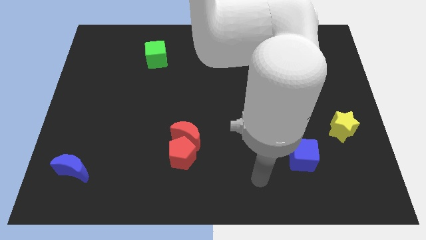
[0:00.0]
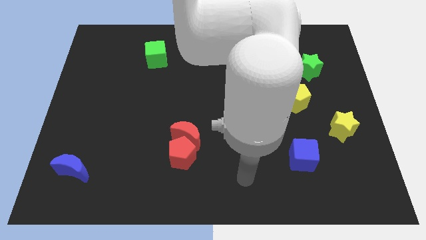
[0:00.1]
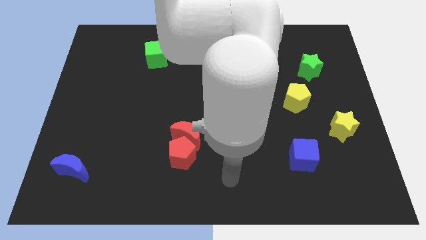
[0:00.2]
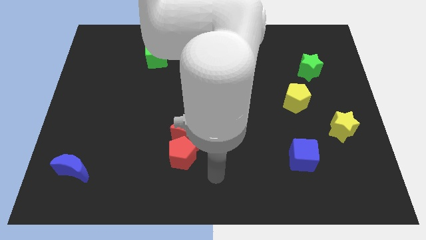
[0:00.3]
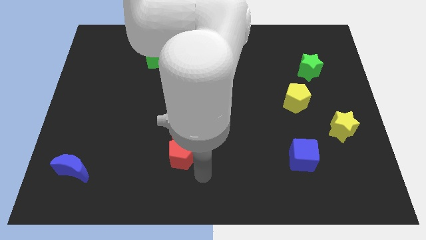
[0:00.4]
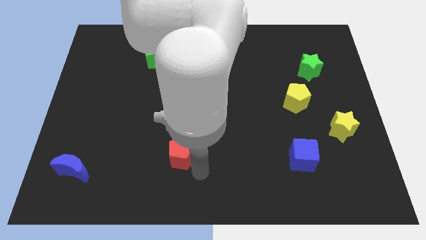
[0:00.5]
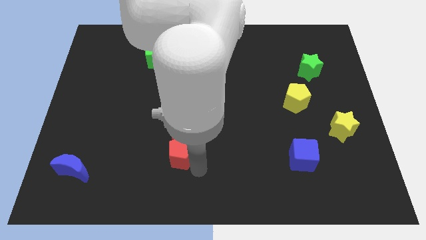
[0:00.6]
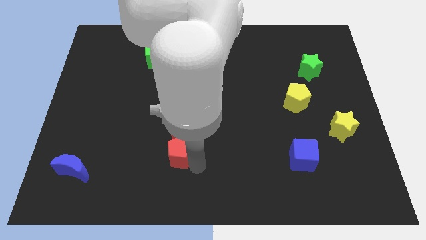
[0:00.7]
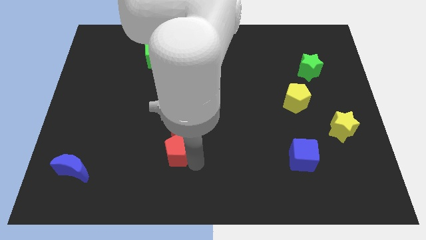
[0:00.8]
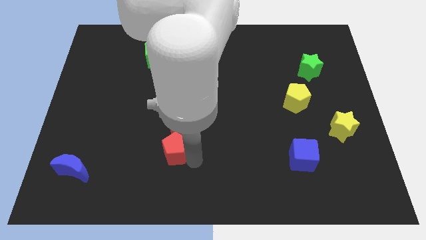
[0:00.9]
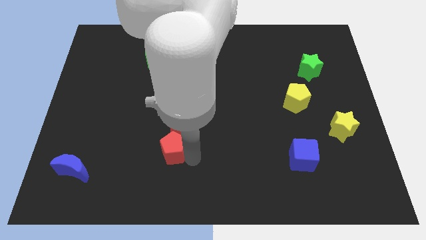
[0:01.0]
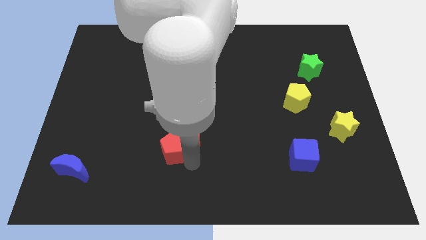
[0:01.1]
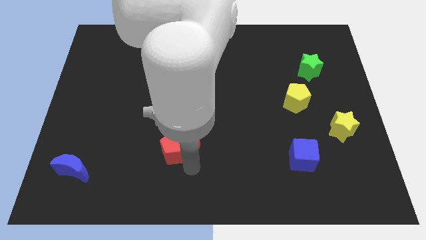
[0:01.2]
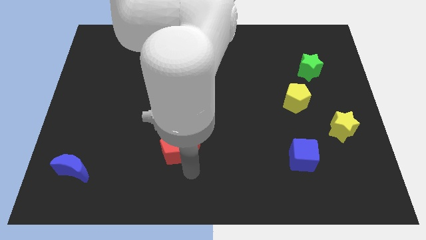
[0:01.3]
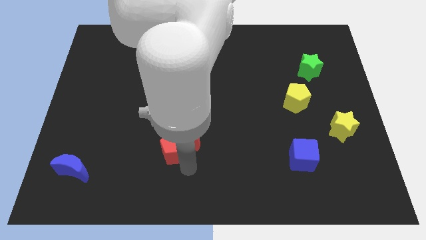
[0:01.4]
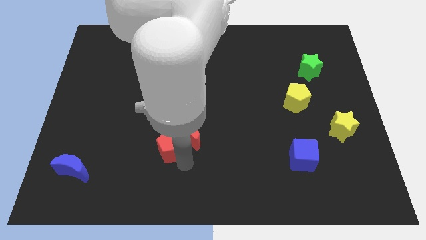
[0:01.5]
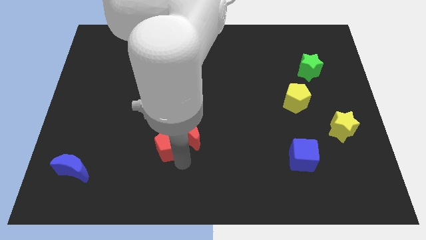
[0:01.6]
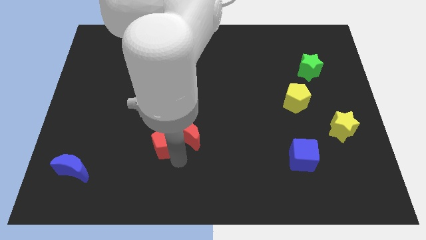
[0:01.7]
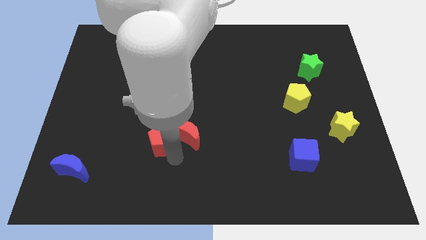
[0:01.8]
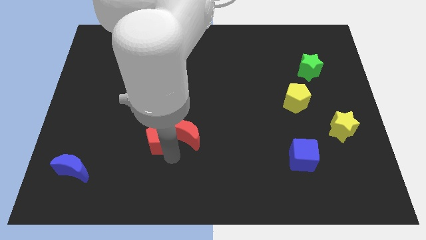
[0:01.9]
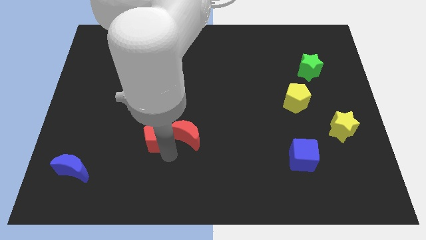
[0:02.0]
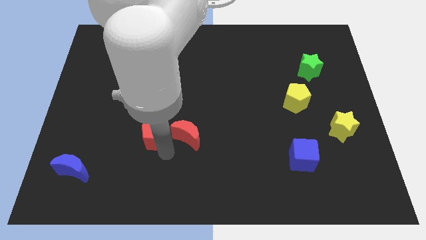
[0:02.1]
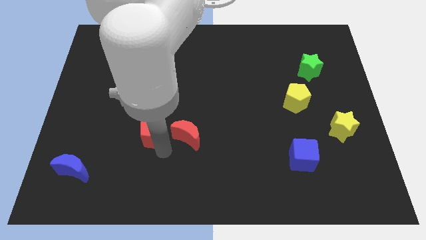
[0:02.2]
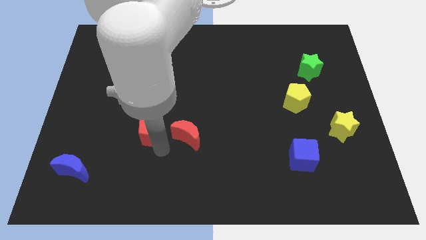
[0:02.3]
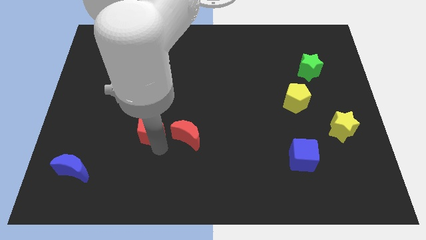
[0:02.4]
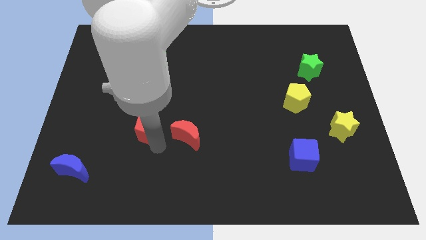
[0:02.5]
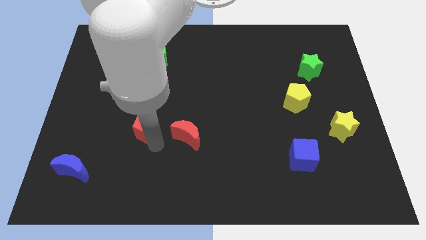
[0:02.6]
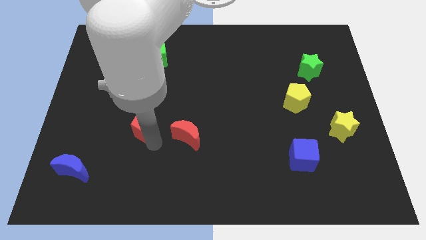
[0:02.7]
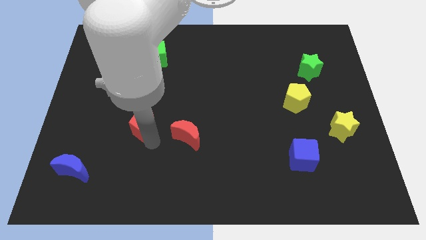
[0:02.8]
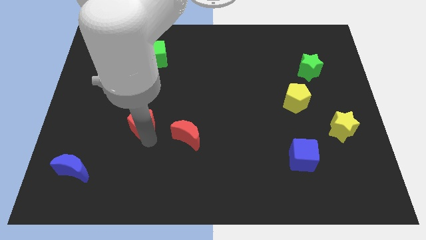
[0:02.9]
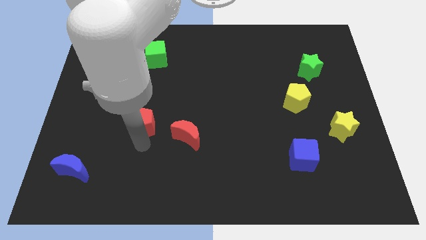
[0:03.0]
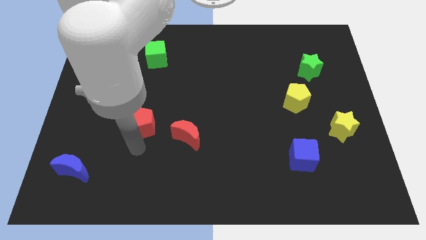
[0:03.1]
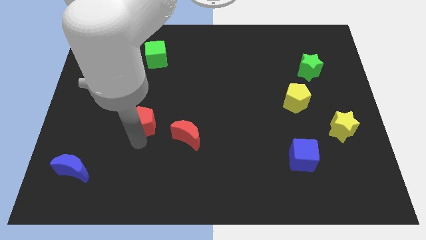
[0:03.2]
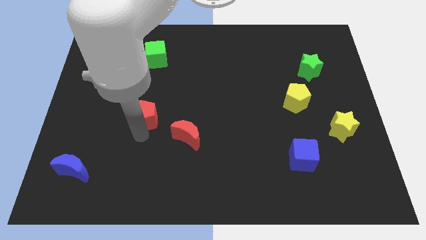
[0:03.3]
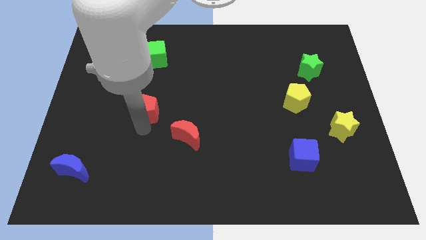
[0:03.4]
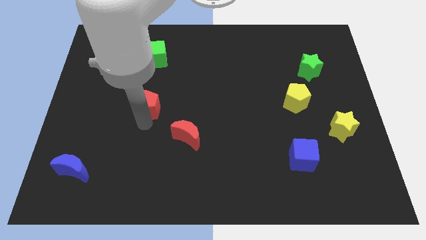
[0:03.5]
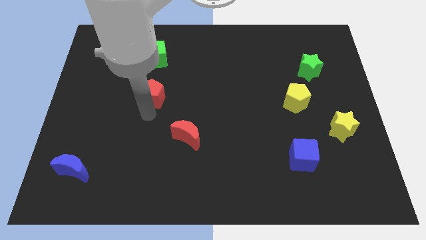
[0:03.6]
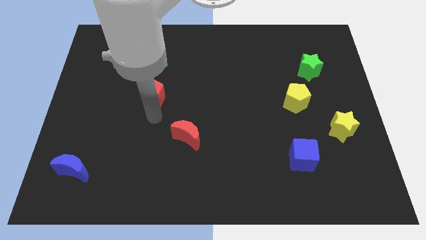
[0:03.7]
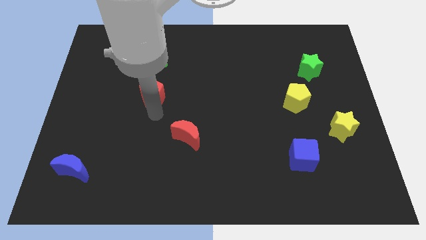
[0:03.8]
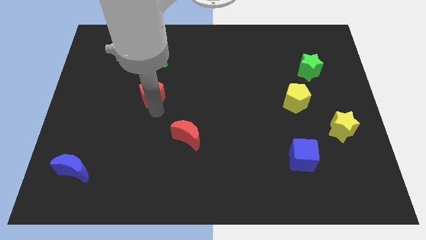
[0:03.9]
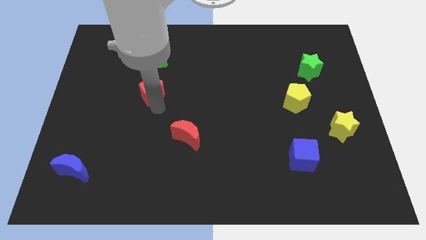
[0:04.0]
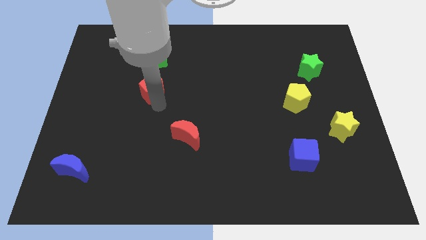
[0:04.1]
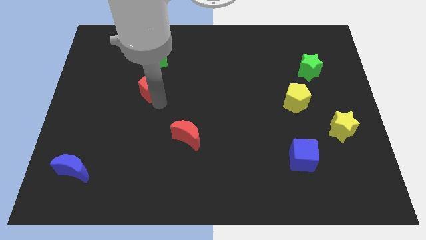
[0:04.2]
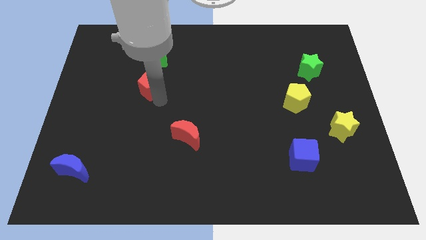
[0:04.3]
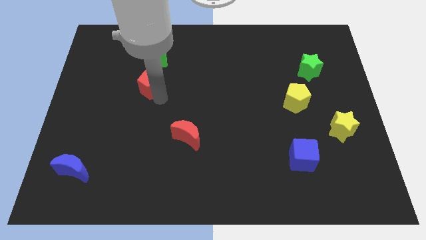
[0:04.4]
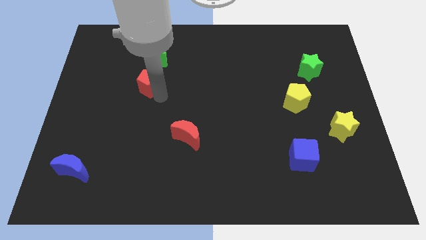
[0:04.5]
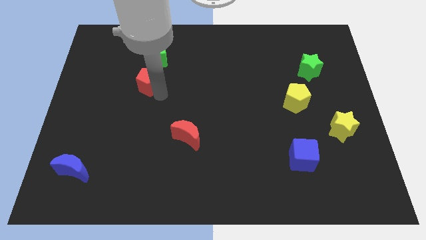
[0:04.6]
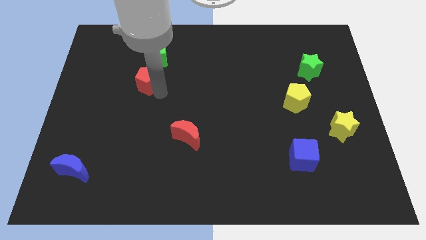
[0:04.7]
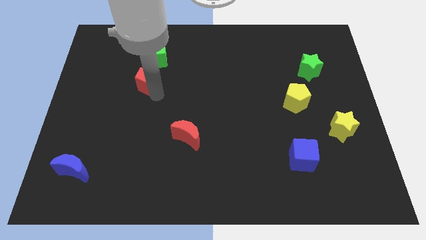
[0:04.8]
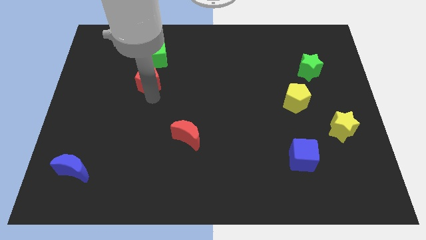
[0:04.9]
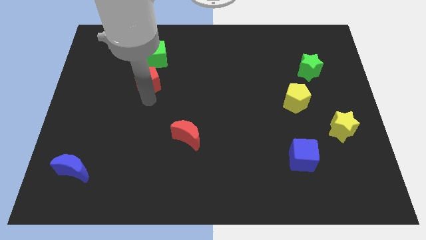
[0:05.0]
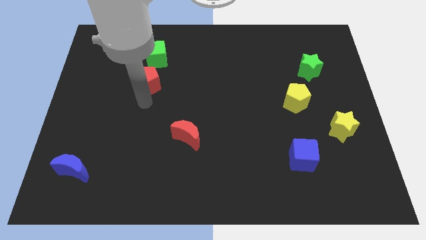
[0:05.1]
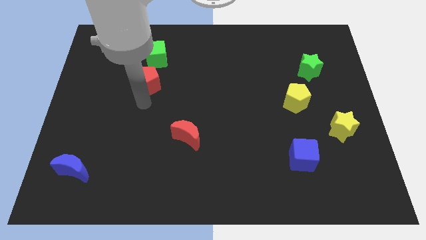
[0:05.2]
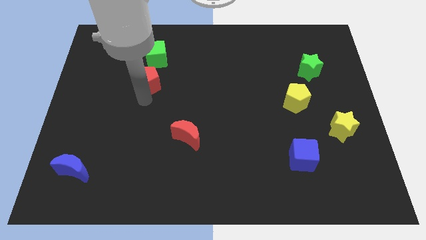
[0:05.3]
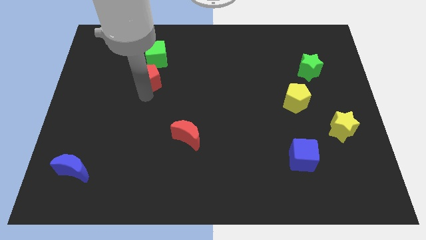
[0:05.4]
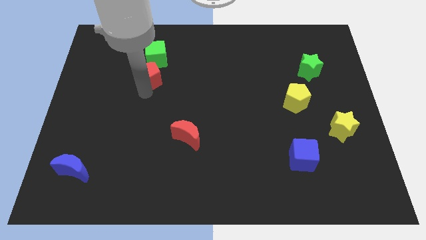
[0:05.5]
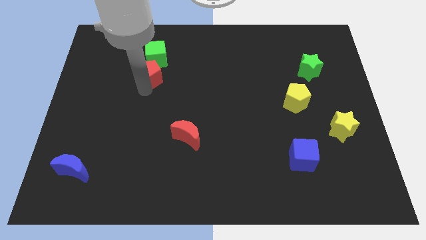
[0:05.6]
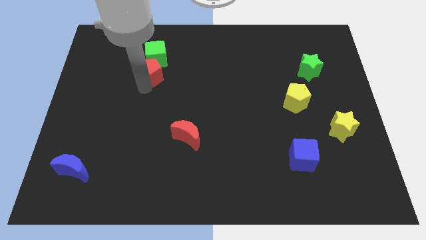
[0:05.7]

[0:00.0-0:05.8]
slide the red pentagon towards the green cube

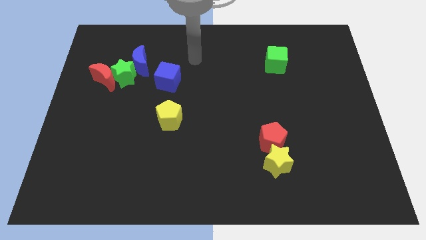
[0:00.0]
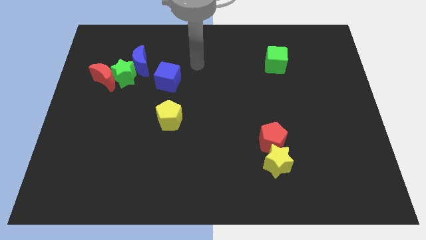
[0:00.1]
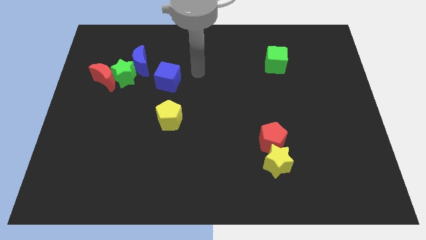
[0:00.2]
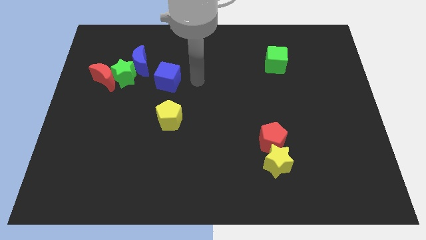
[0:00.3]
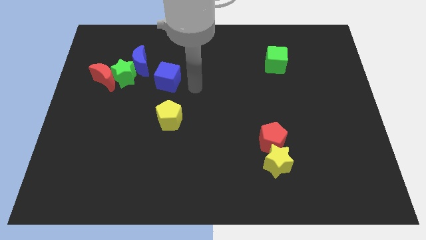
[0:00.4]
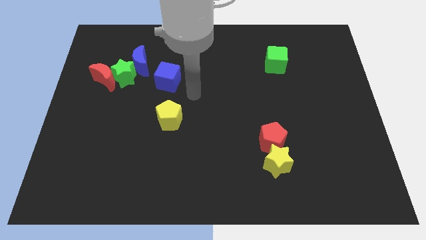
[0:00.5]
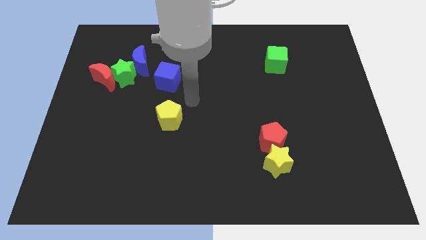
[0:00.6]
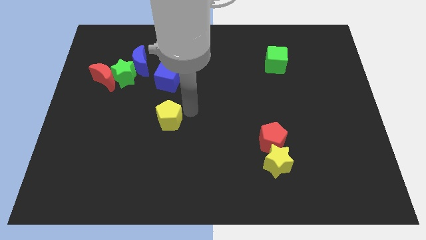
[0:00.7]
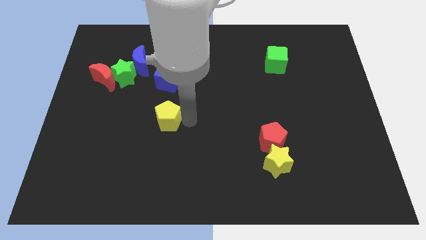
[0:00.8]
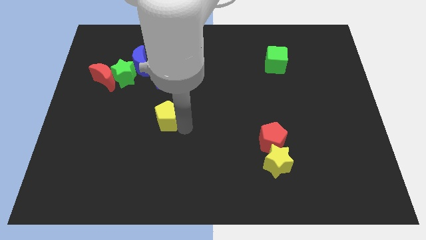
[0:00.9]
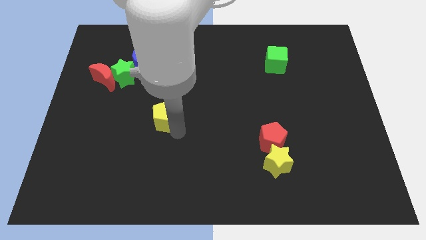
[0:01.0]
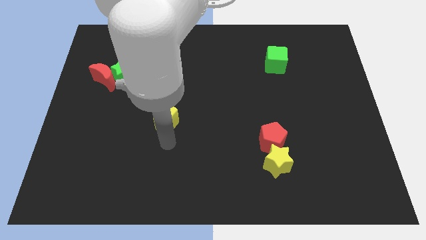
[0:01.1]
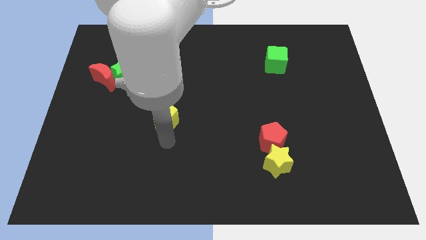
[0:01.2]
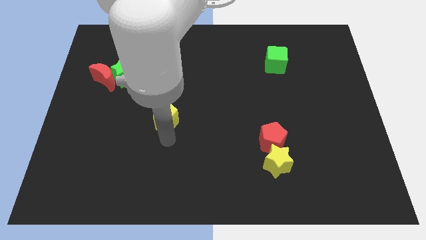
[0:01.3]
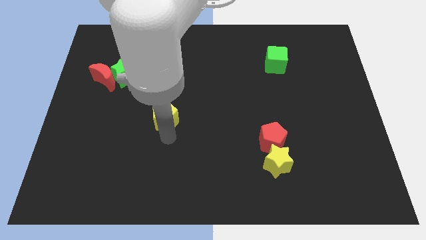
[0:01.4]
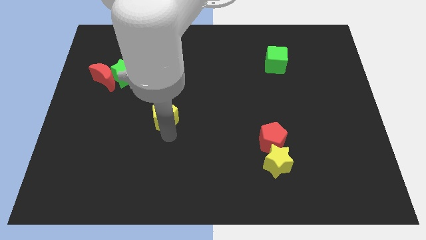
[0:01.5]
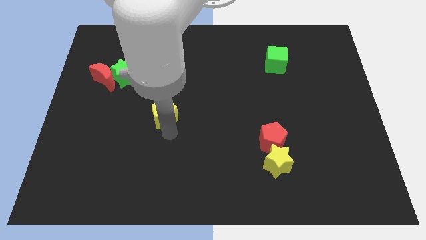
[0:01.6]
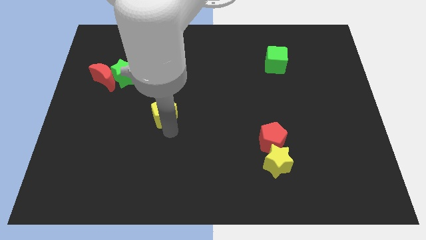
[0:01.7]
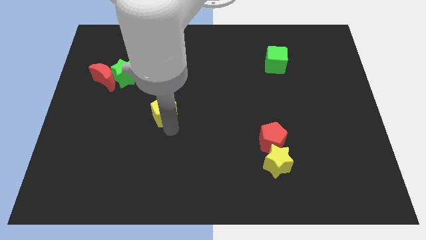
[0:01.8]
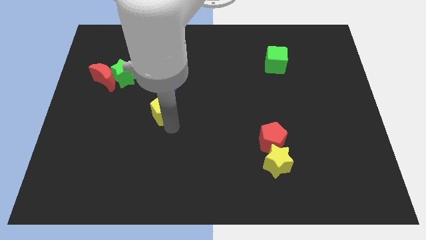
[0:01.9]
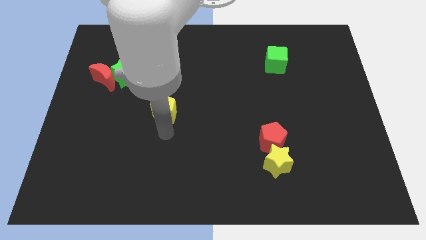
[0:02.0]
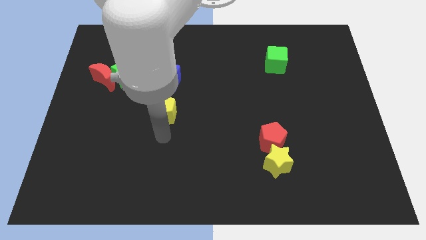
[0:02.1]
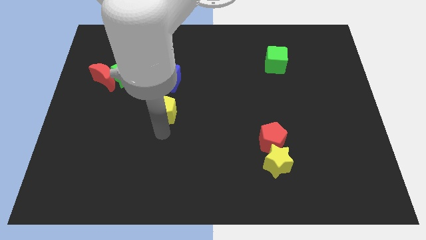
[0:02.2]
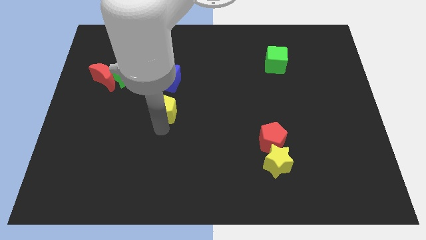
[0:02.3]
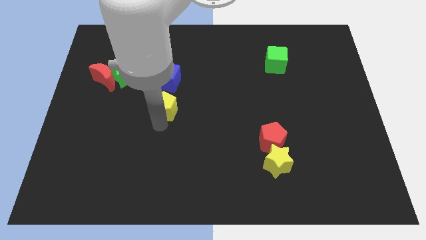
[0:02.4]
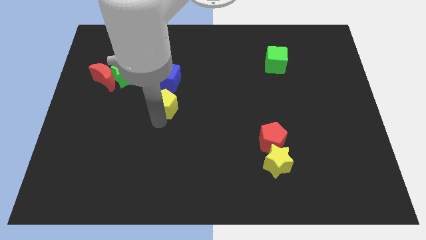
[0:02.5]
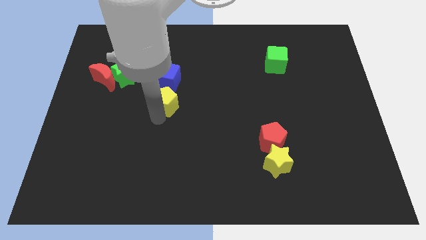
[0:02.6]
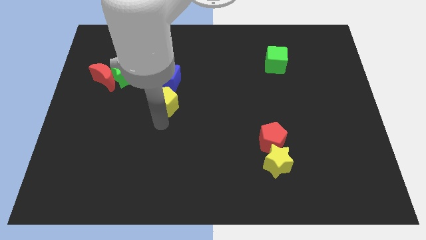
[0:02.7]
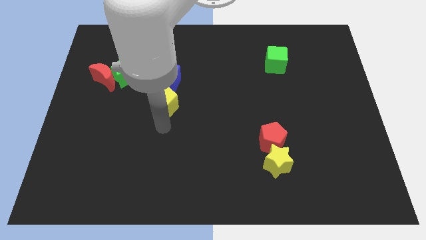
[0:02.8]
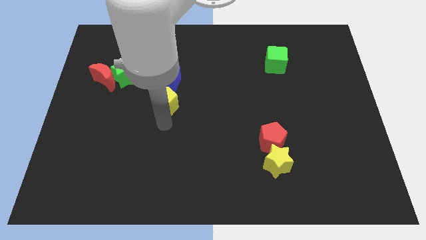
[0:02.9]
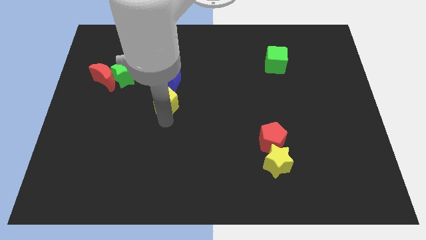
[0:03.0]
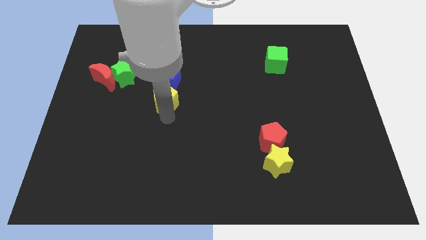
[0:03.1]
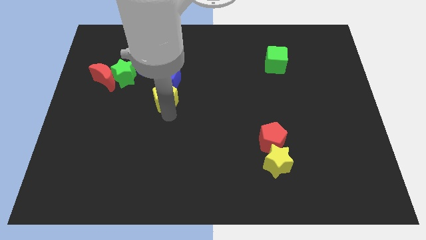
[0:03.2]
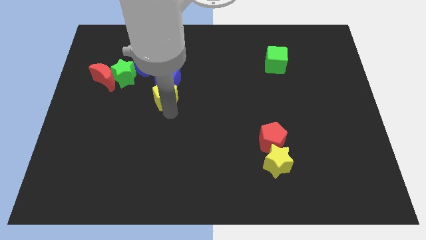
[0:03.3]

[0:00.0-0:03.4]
put the yellow pentagon next to the blue cube
